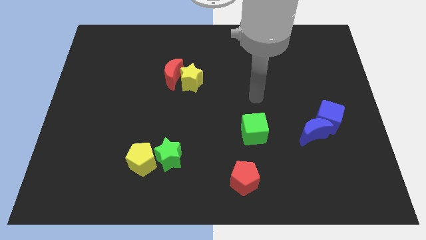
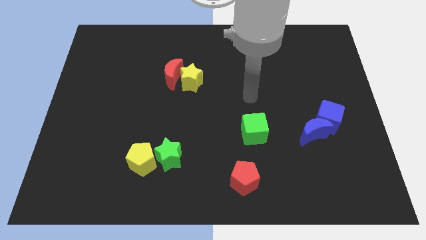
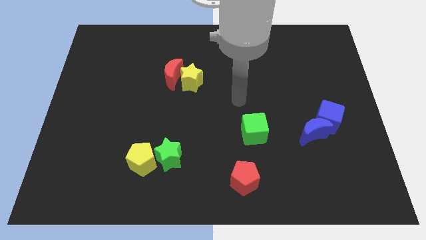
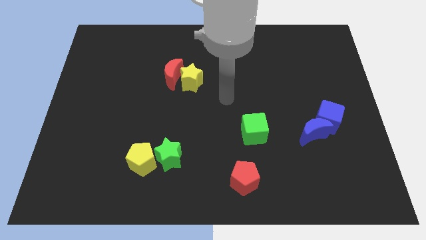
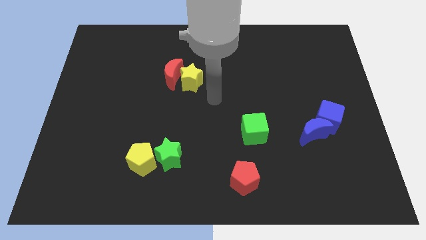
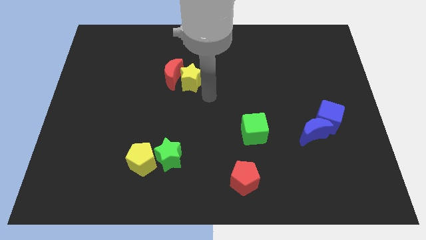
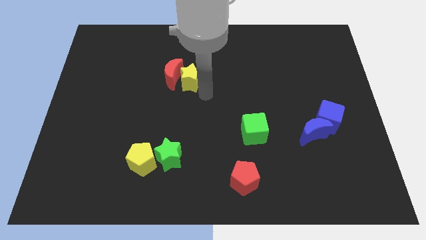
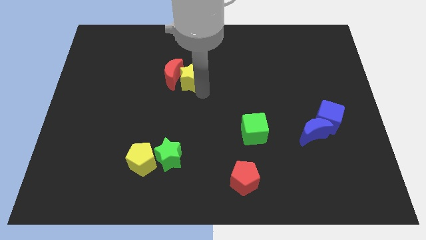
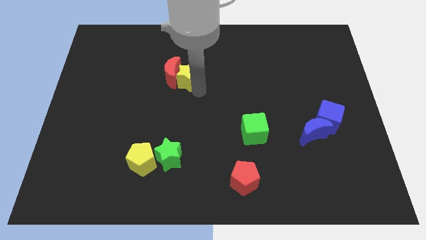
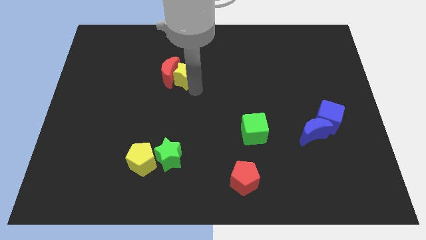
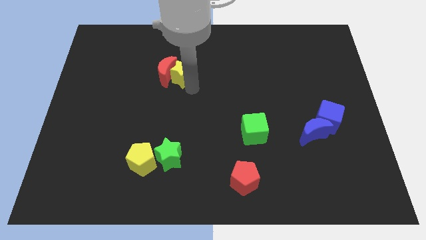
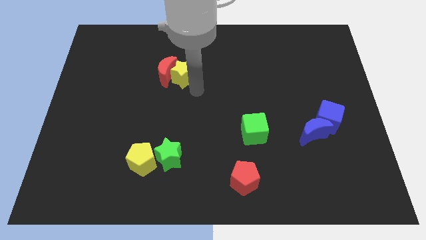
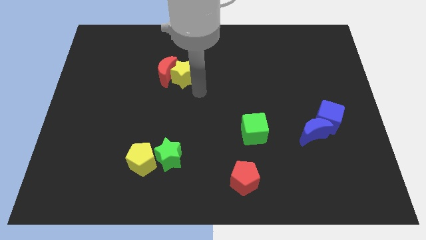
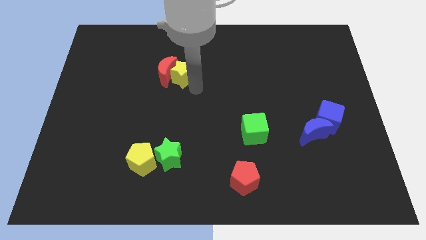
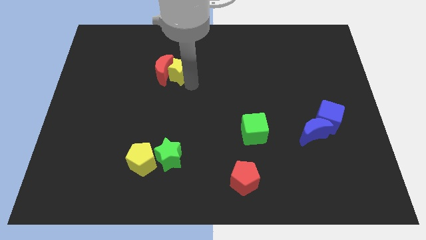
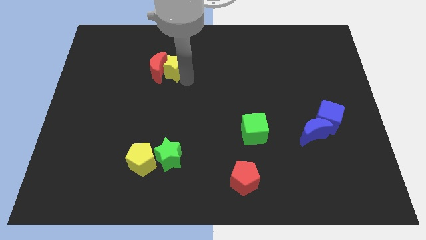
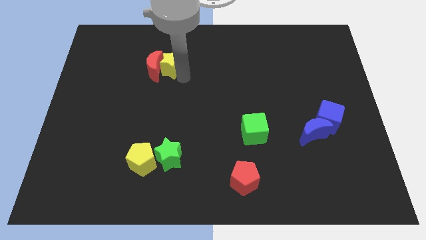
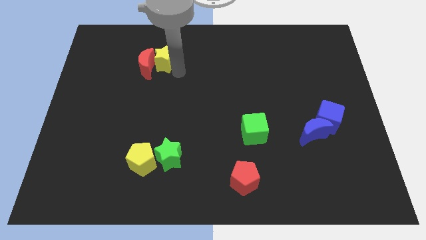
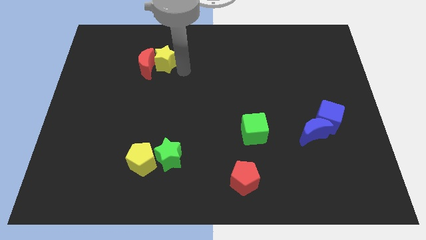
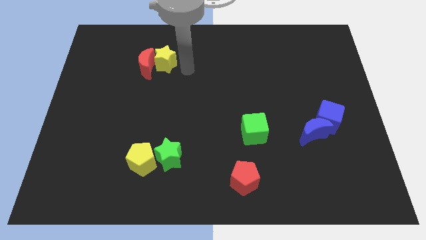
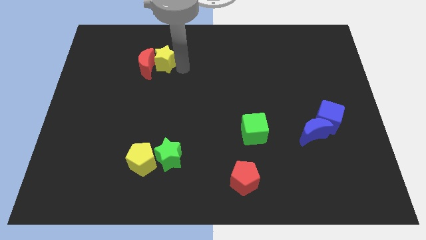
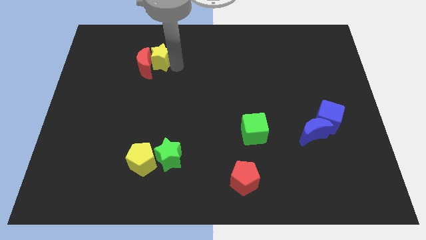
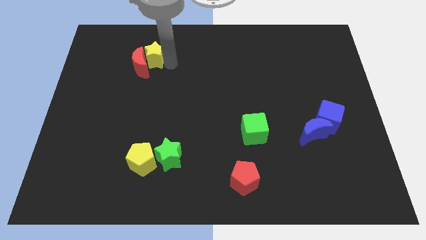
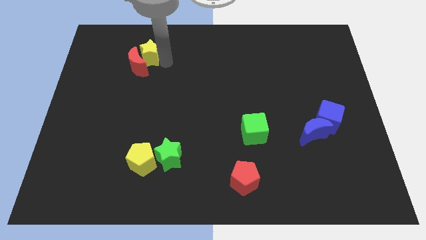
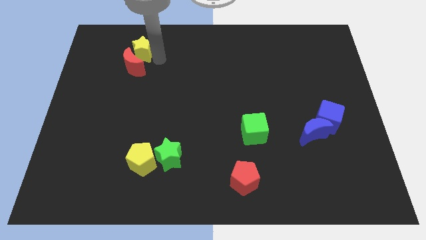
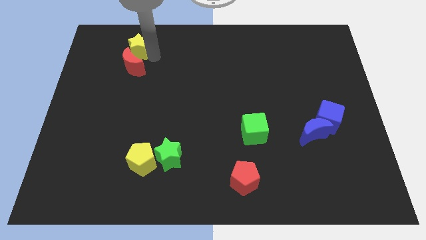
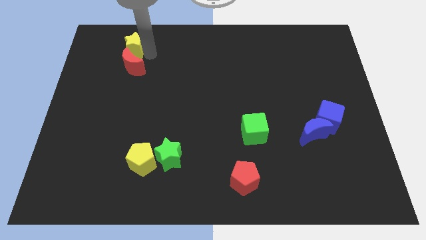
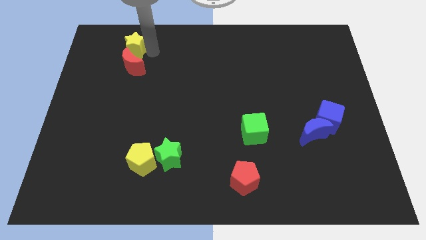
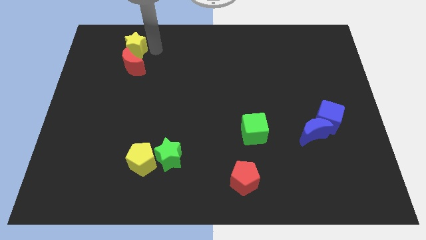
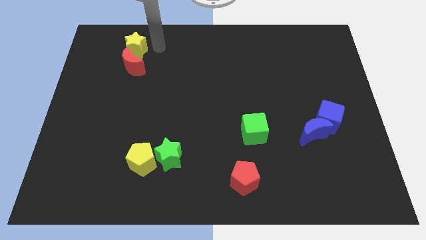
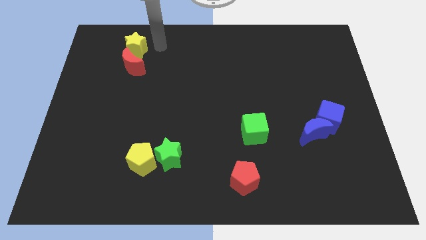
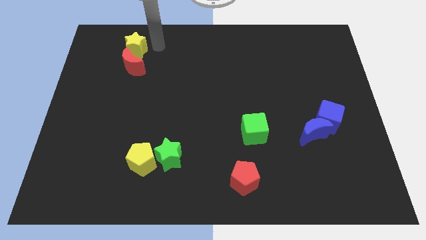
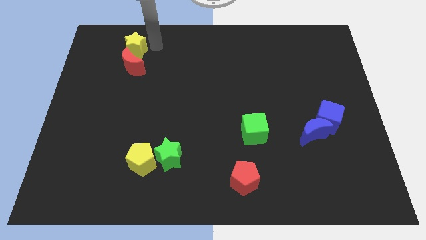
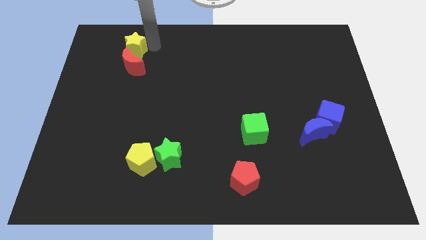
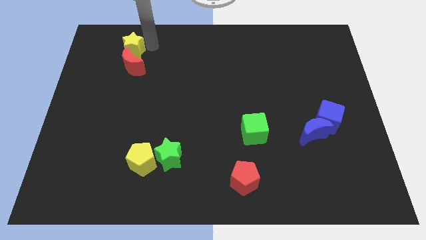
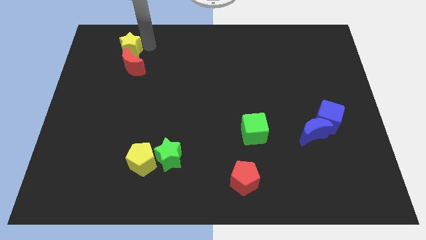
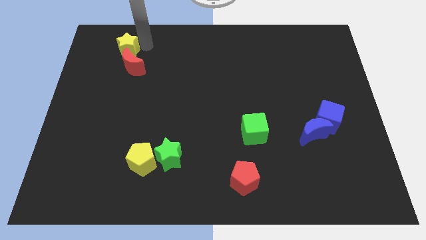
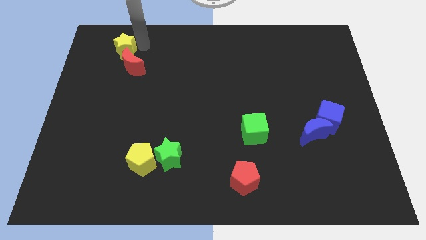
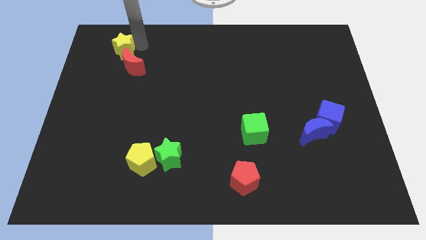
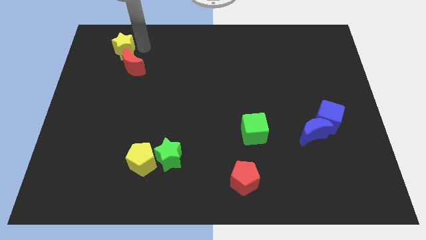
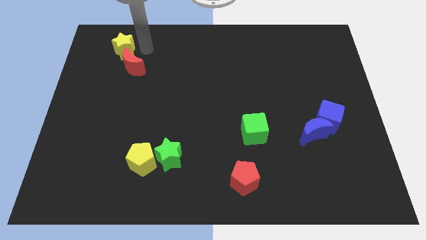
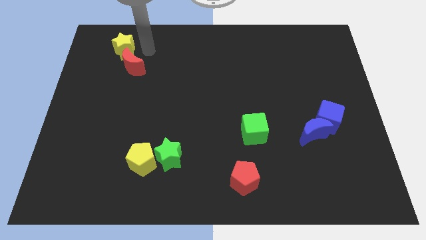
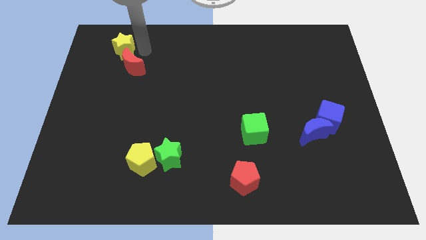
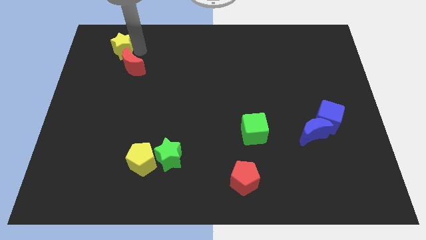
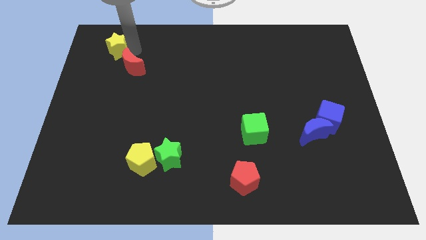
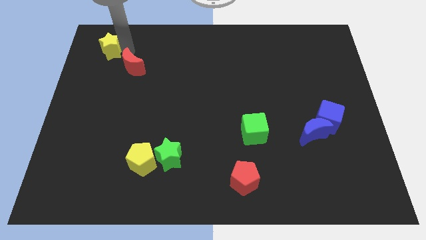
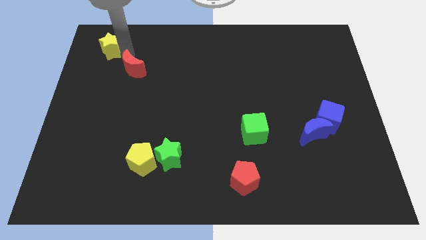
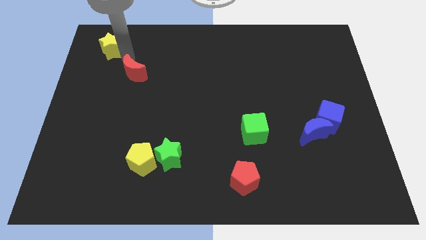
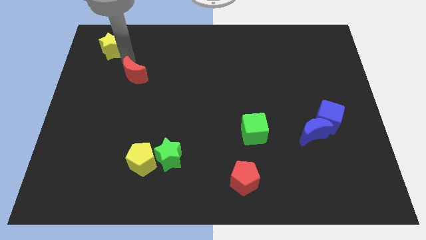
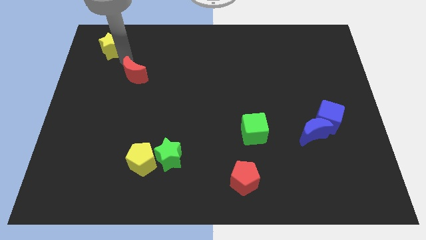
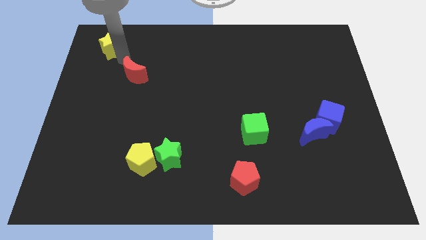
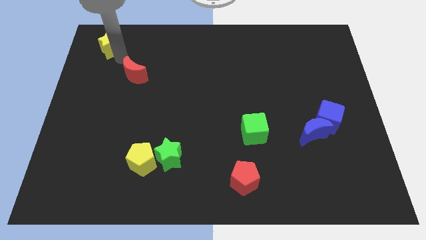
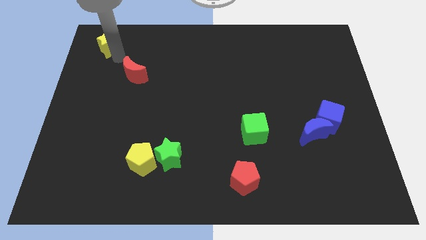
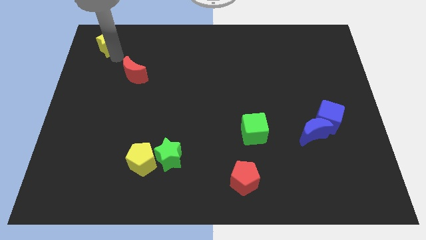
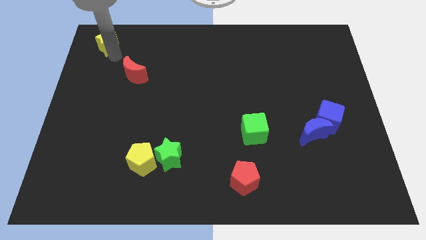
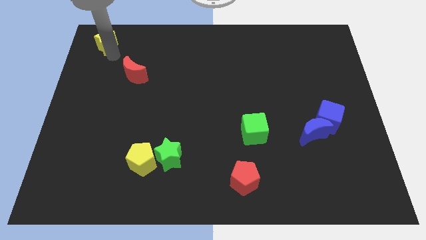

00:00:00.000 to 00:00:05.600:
move the yellow star to the upper left corner
